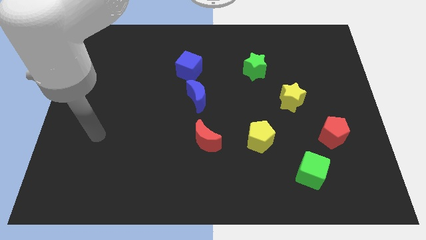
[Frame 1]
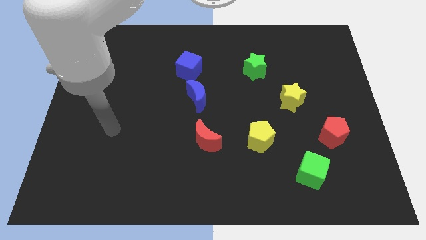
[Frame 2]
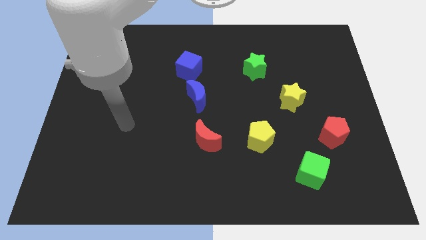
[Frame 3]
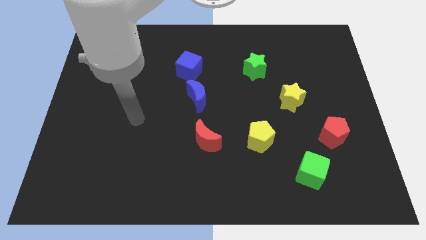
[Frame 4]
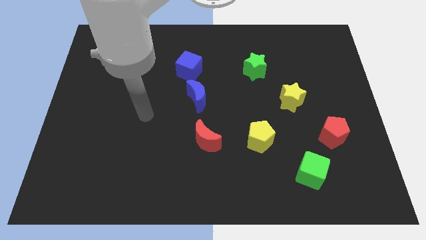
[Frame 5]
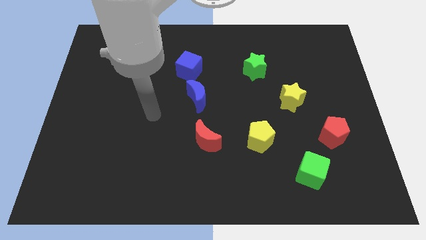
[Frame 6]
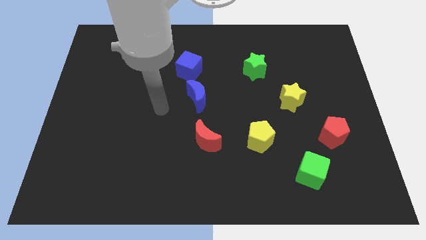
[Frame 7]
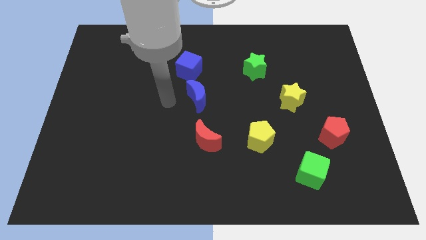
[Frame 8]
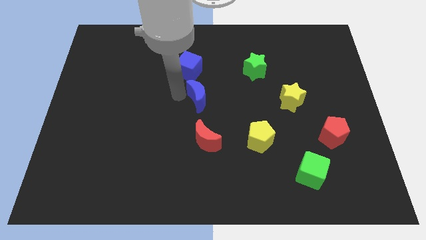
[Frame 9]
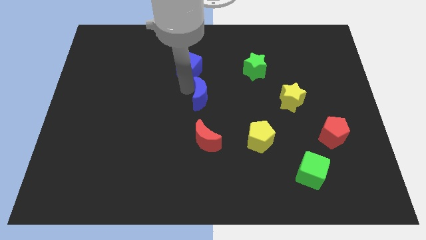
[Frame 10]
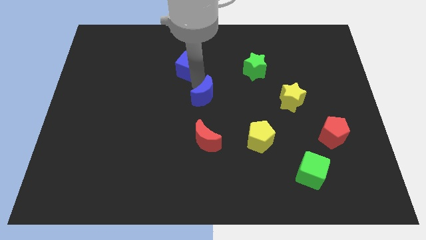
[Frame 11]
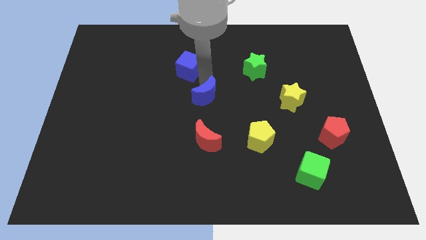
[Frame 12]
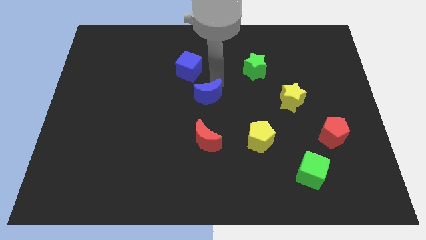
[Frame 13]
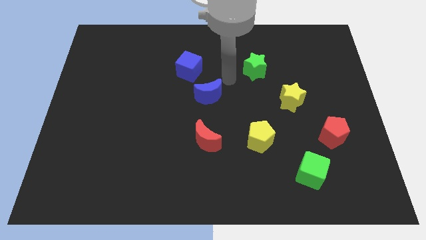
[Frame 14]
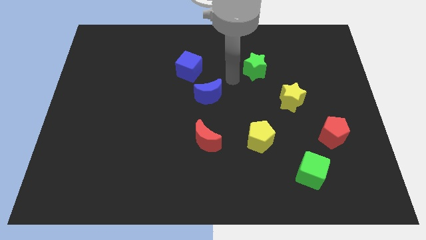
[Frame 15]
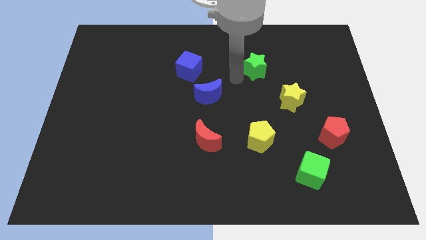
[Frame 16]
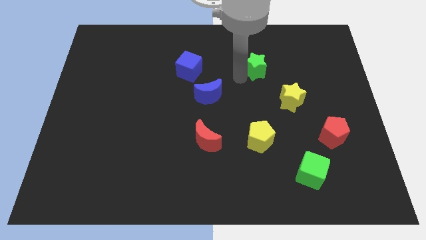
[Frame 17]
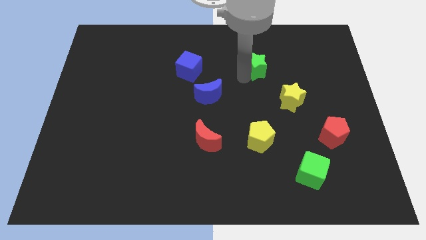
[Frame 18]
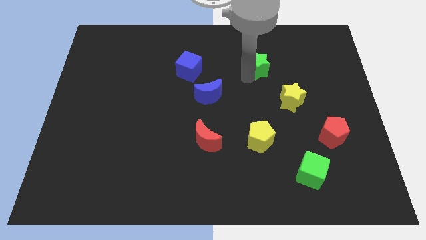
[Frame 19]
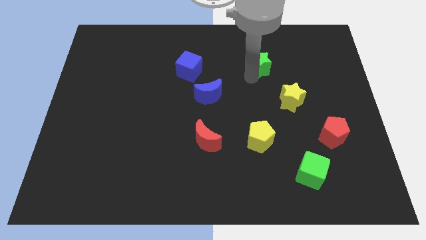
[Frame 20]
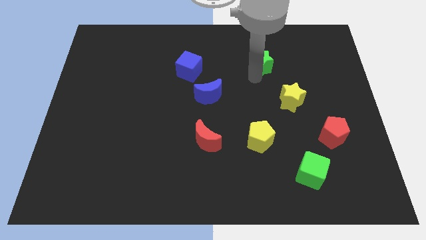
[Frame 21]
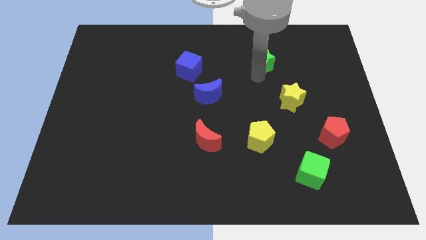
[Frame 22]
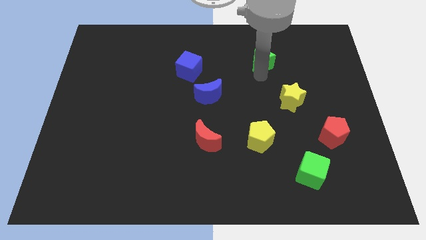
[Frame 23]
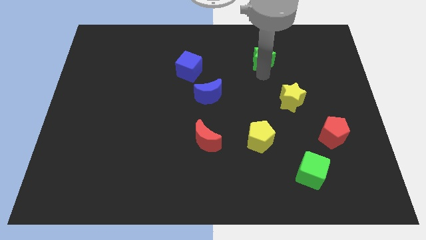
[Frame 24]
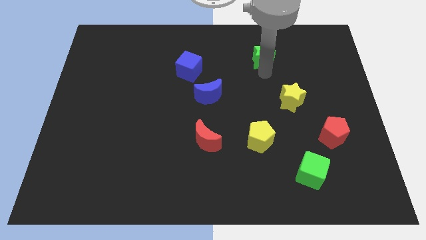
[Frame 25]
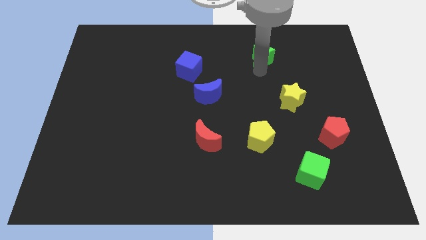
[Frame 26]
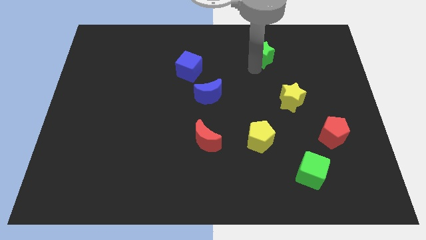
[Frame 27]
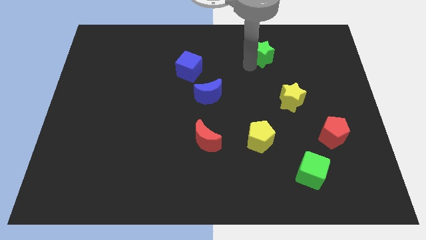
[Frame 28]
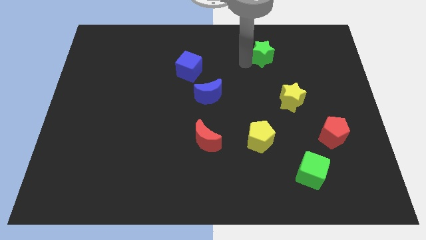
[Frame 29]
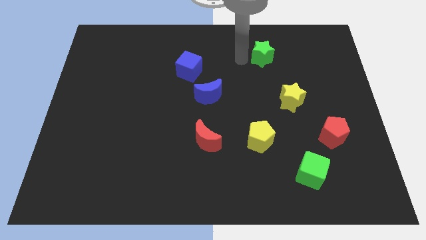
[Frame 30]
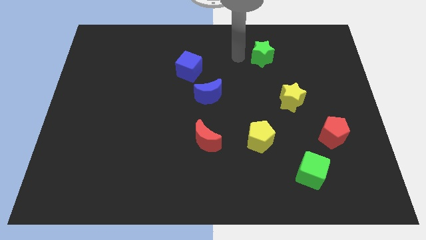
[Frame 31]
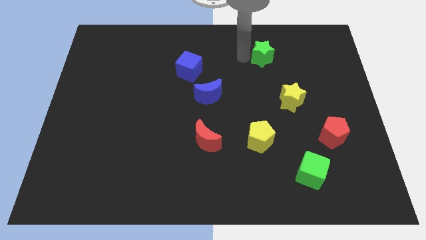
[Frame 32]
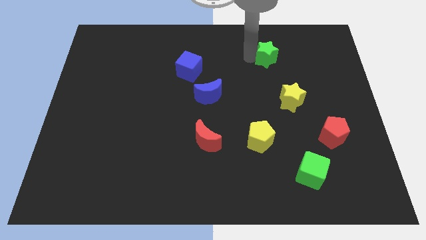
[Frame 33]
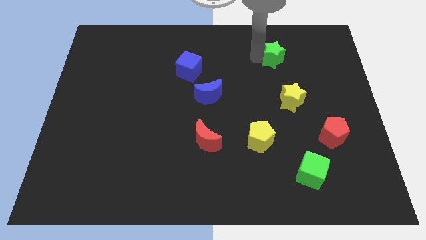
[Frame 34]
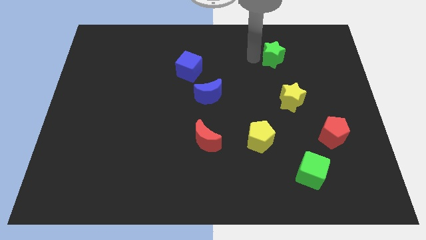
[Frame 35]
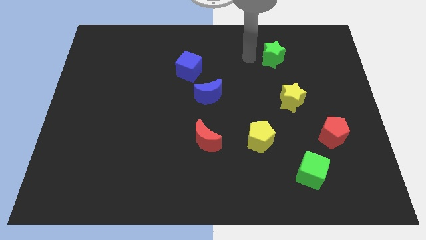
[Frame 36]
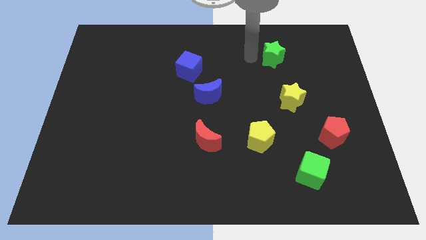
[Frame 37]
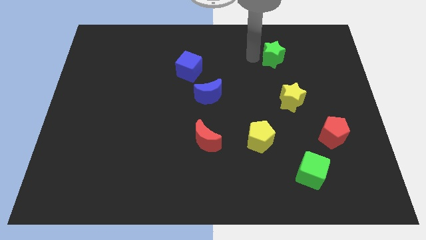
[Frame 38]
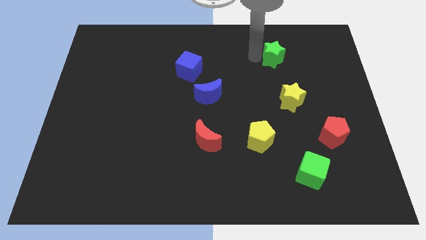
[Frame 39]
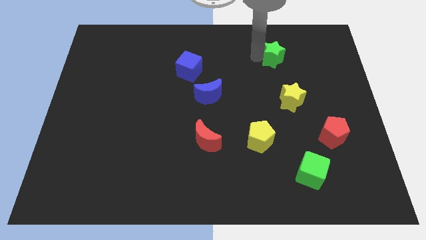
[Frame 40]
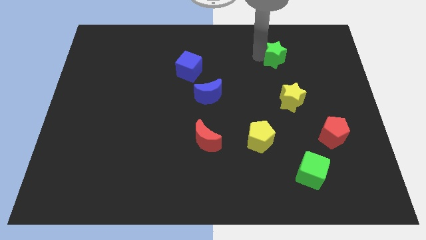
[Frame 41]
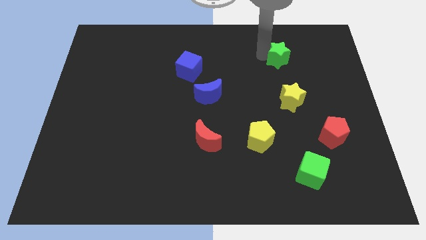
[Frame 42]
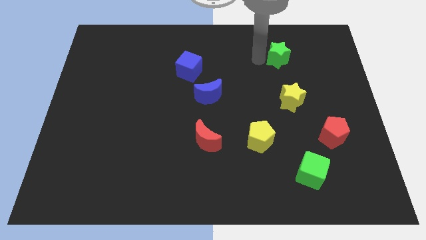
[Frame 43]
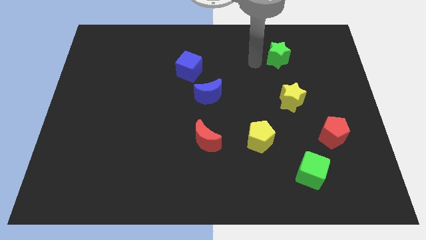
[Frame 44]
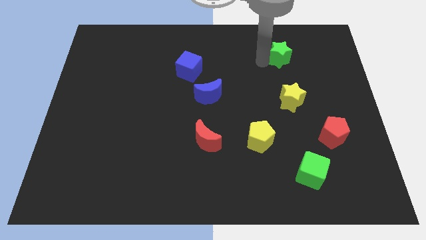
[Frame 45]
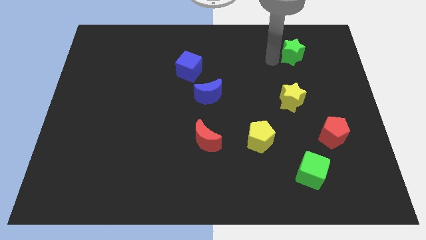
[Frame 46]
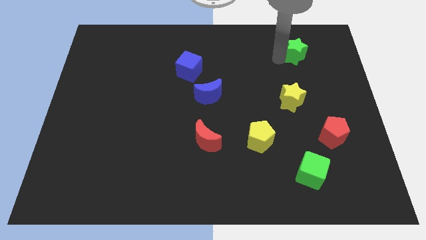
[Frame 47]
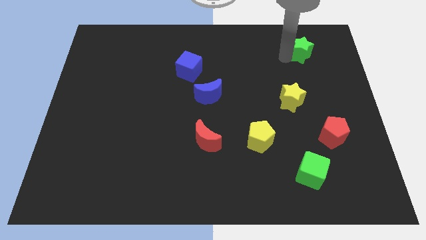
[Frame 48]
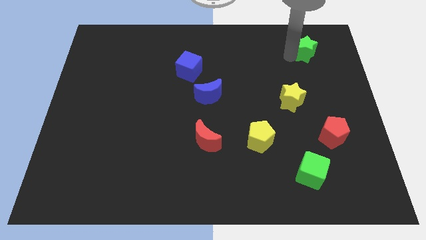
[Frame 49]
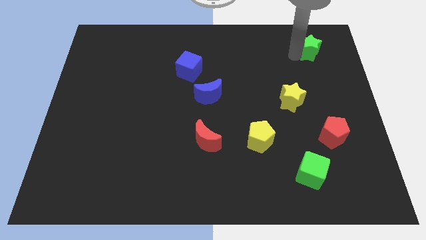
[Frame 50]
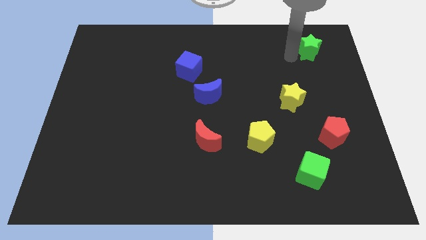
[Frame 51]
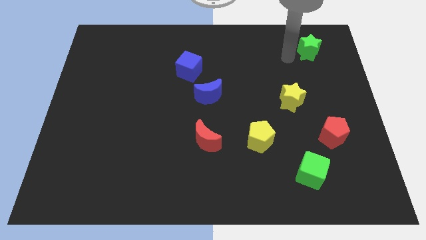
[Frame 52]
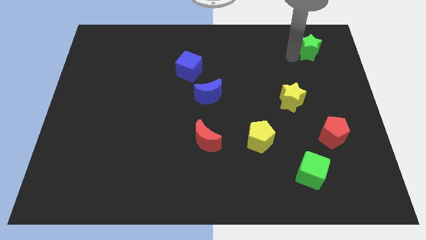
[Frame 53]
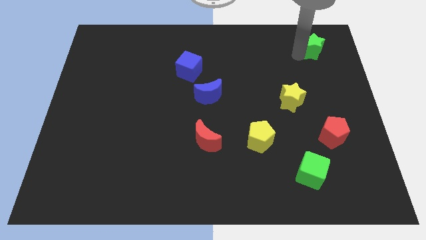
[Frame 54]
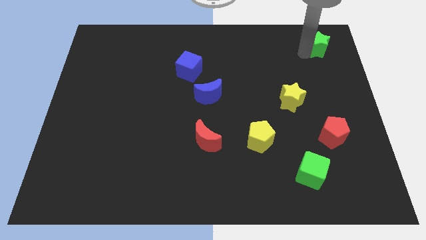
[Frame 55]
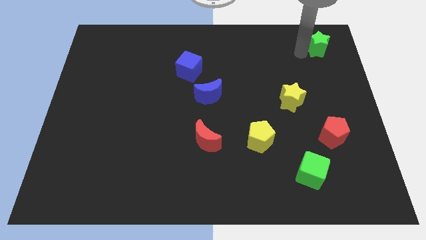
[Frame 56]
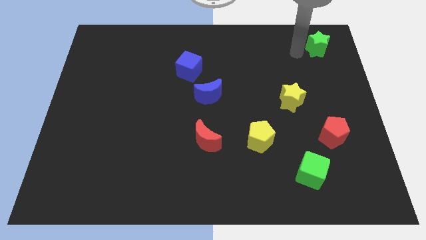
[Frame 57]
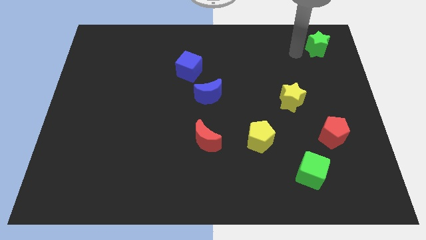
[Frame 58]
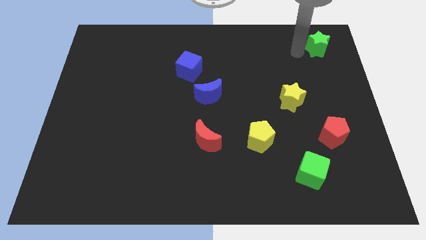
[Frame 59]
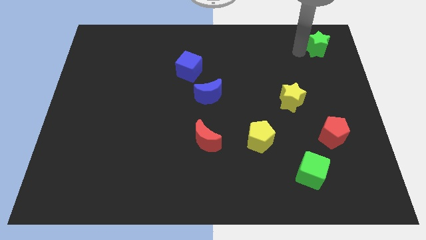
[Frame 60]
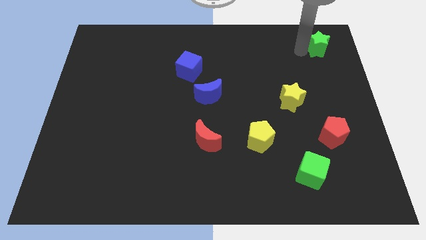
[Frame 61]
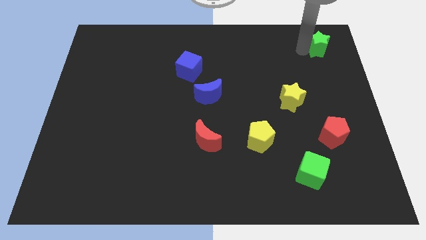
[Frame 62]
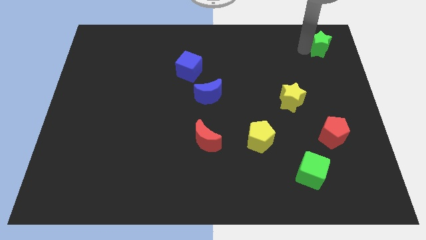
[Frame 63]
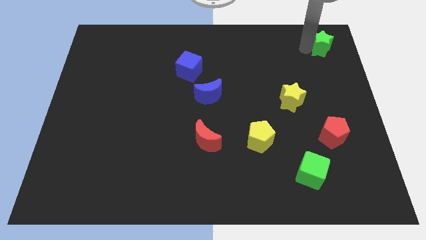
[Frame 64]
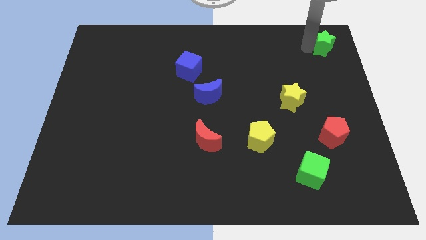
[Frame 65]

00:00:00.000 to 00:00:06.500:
push the green star to the top right corner
